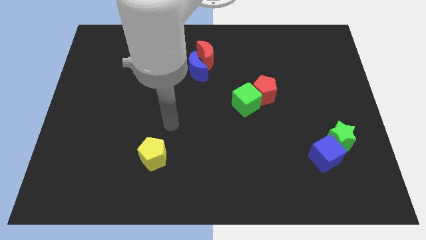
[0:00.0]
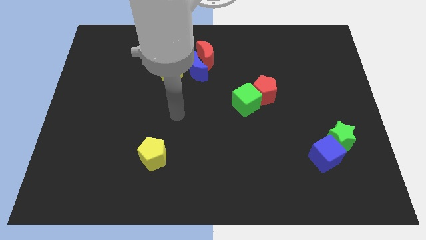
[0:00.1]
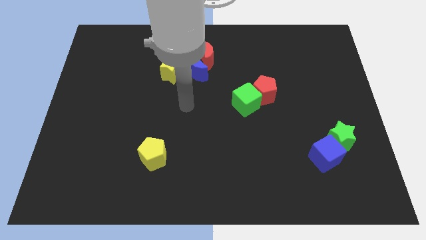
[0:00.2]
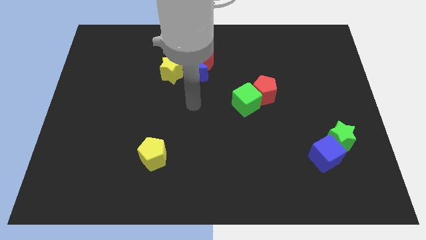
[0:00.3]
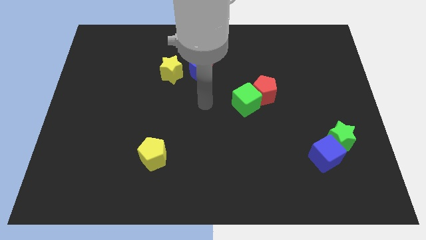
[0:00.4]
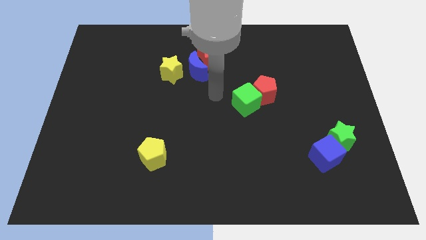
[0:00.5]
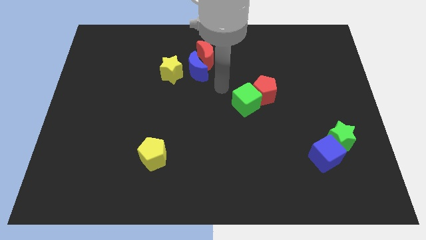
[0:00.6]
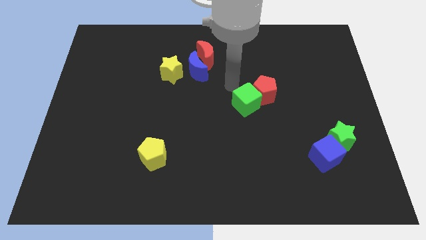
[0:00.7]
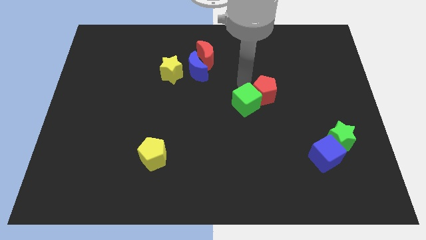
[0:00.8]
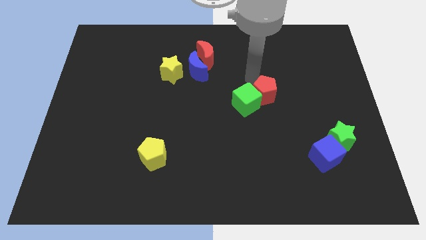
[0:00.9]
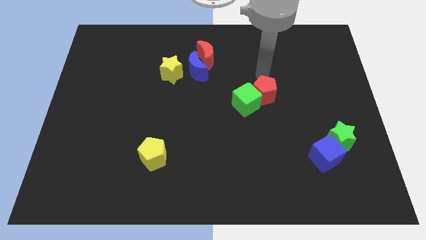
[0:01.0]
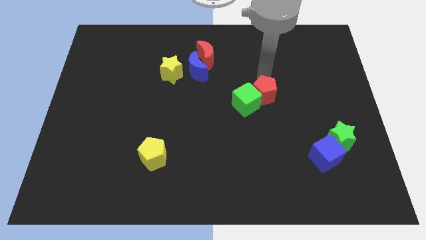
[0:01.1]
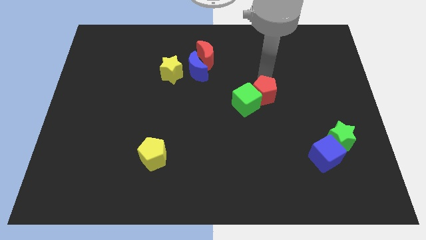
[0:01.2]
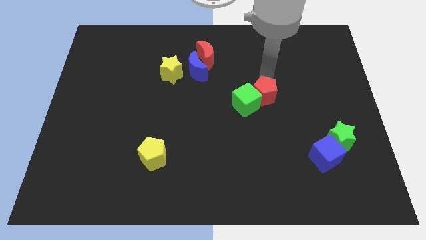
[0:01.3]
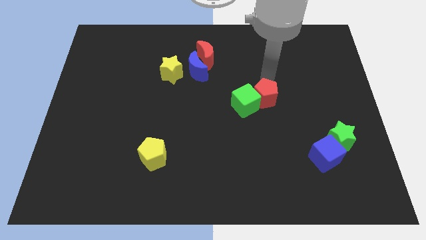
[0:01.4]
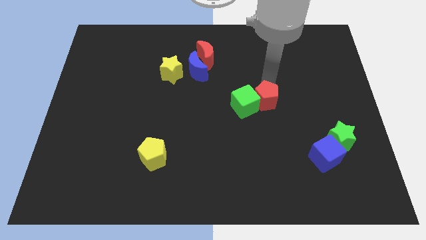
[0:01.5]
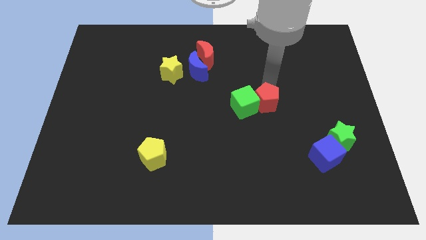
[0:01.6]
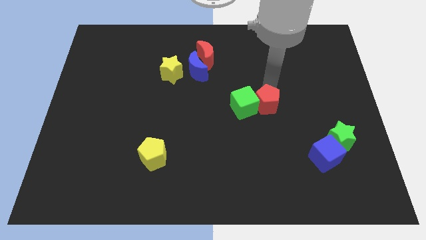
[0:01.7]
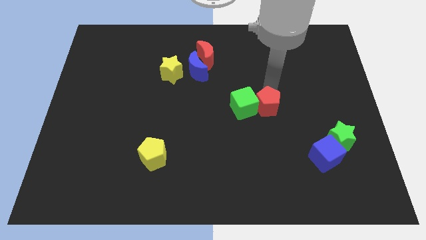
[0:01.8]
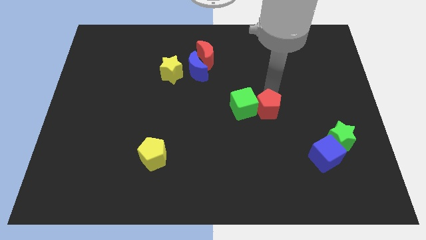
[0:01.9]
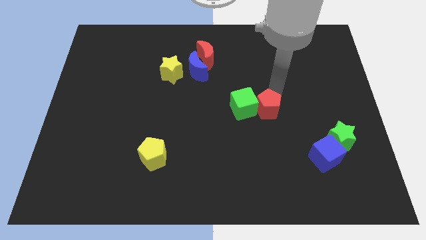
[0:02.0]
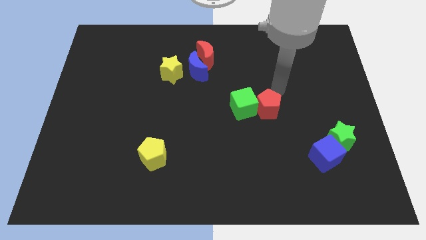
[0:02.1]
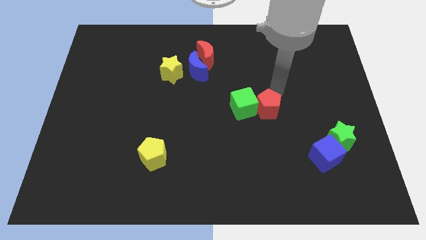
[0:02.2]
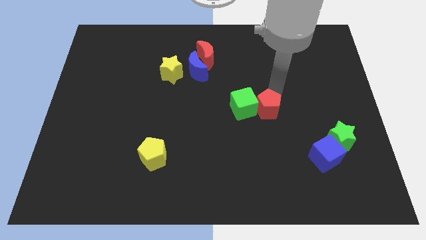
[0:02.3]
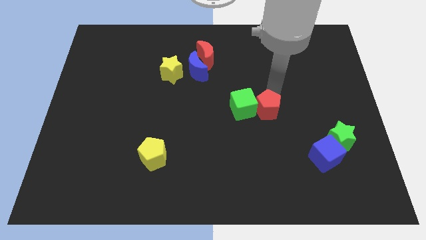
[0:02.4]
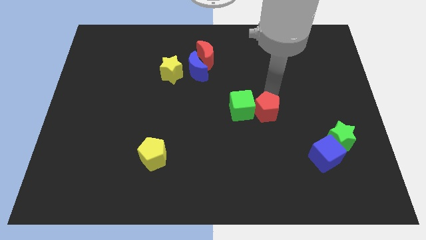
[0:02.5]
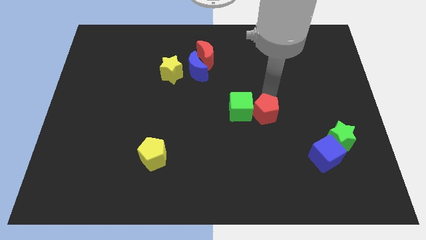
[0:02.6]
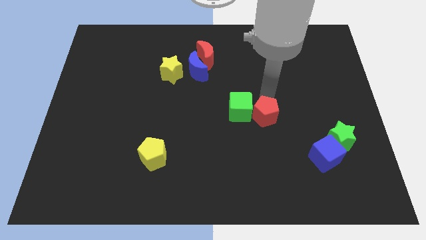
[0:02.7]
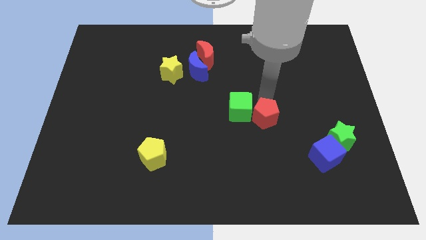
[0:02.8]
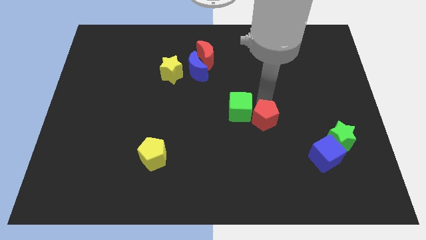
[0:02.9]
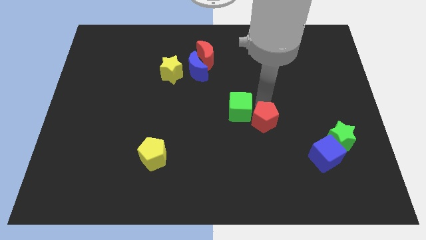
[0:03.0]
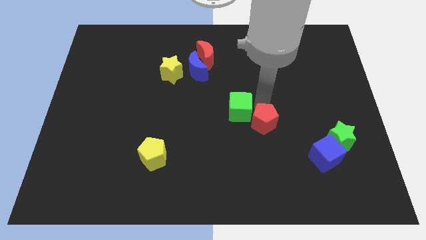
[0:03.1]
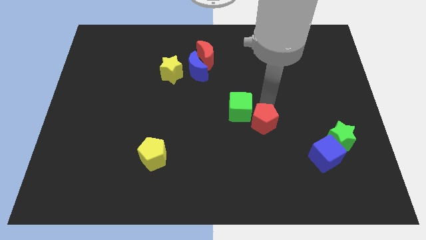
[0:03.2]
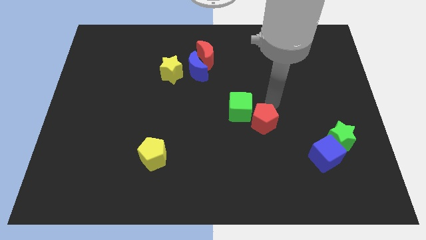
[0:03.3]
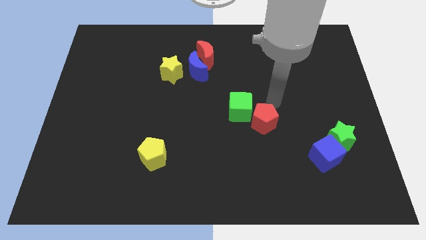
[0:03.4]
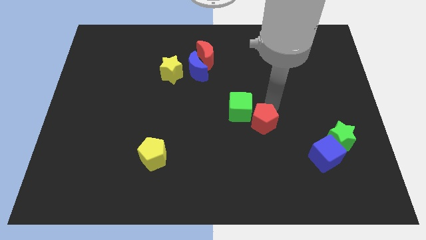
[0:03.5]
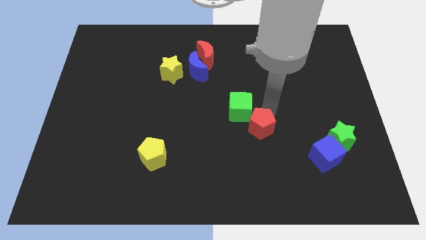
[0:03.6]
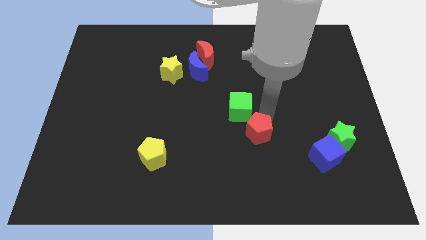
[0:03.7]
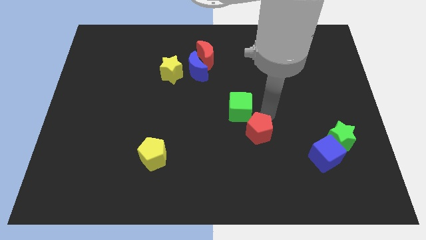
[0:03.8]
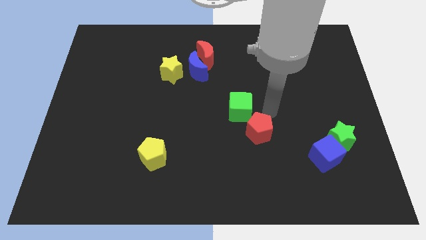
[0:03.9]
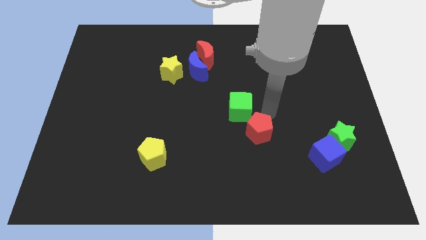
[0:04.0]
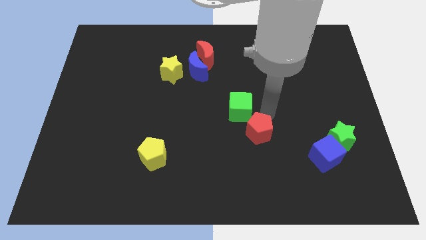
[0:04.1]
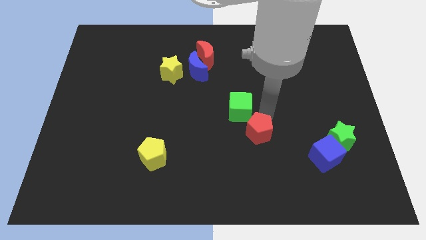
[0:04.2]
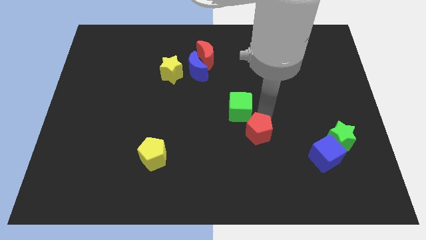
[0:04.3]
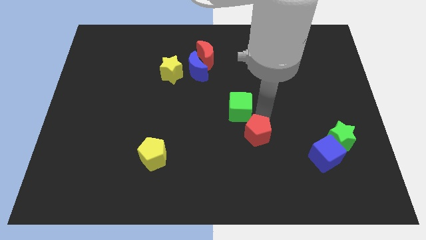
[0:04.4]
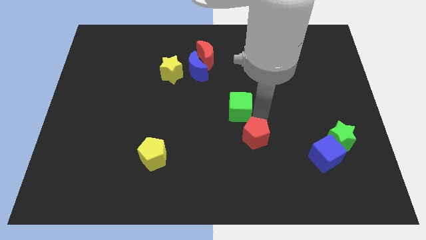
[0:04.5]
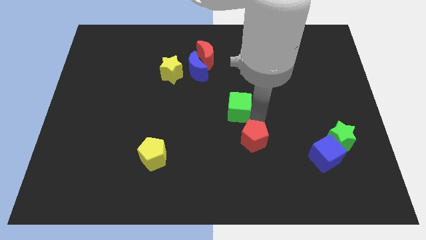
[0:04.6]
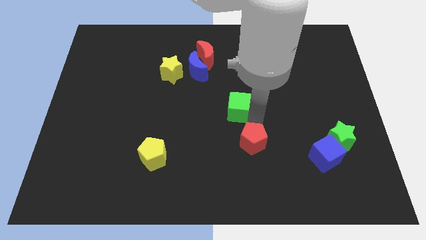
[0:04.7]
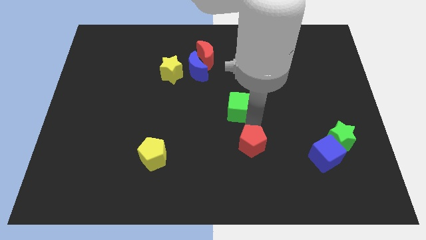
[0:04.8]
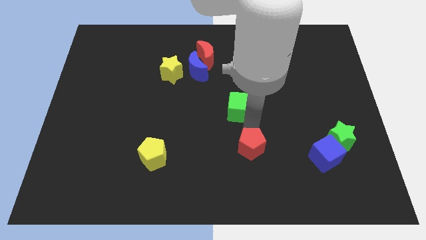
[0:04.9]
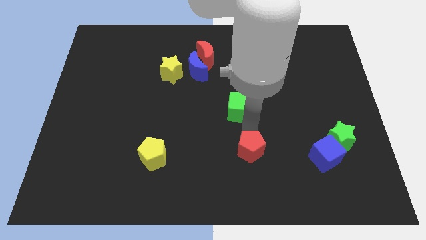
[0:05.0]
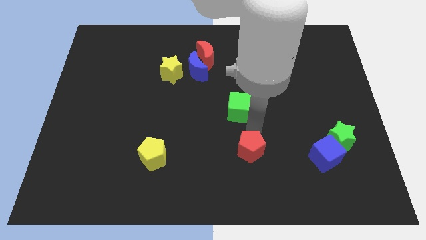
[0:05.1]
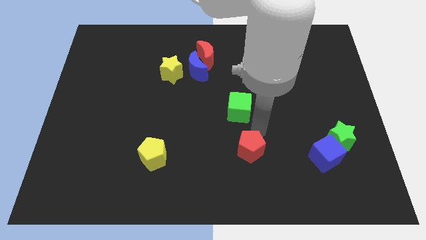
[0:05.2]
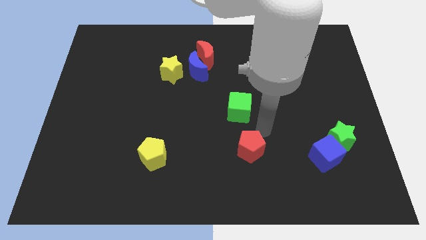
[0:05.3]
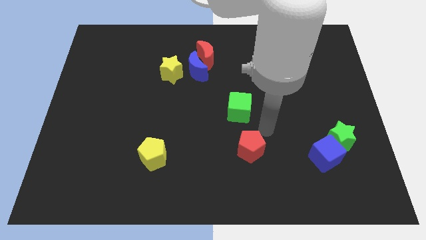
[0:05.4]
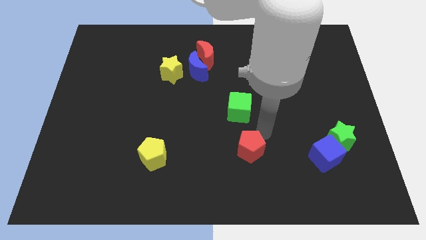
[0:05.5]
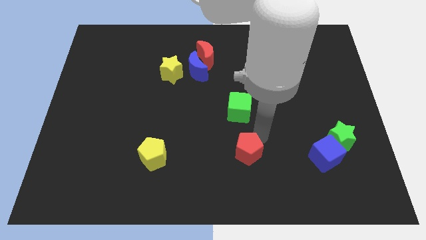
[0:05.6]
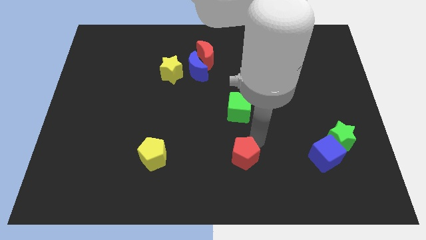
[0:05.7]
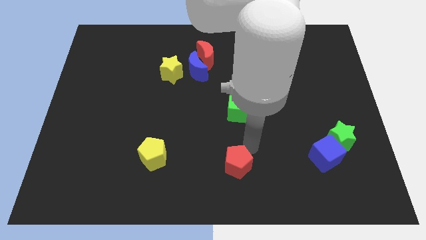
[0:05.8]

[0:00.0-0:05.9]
slide the red pentagon to the bottom
